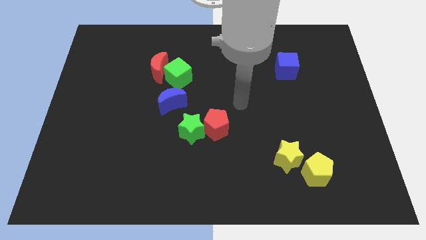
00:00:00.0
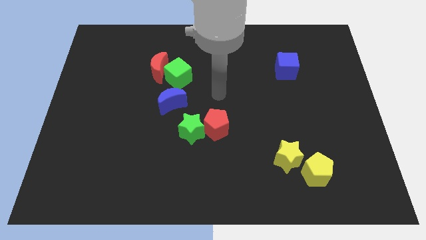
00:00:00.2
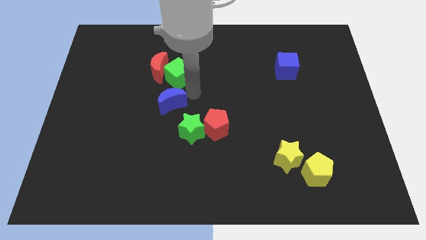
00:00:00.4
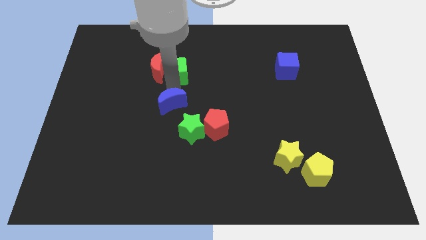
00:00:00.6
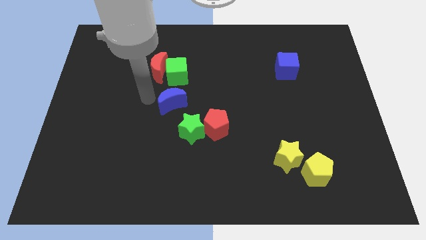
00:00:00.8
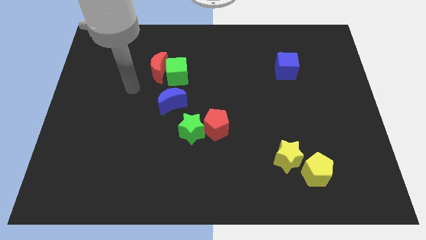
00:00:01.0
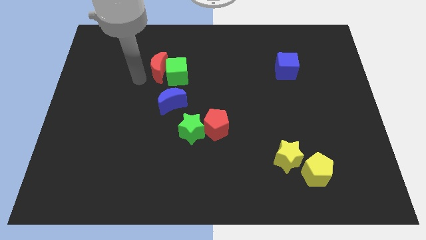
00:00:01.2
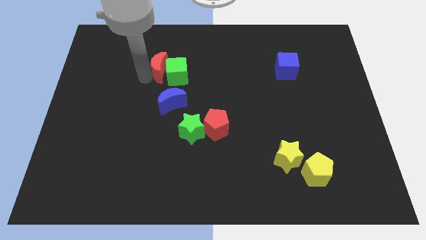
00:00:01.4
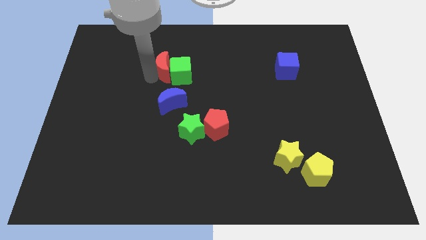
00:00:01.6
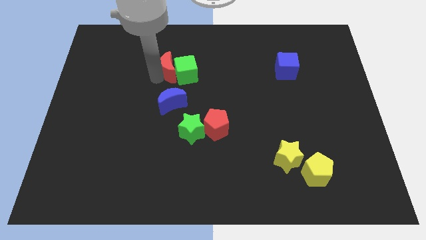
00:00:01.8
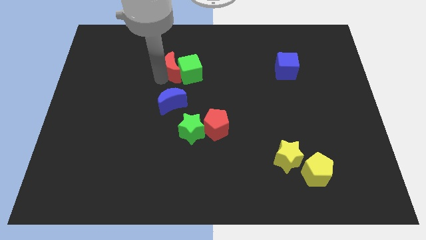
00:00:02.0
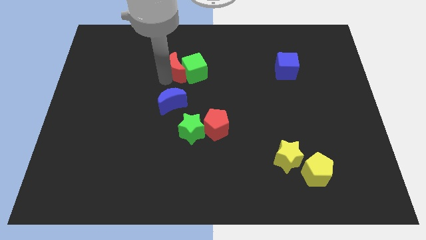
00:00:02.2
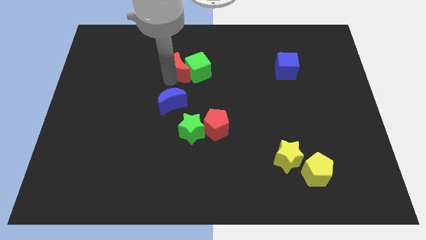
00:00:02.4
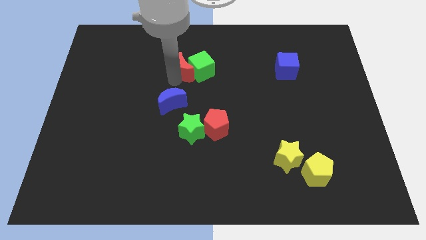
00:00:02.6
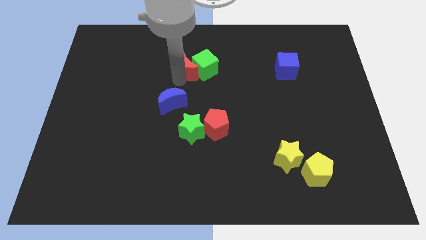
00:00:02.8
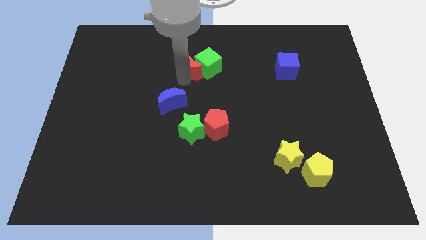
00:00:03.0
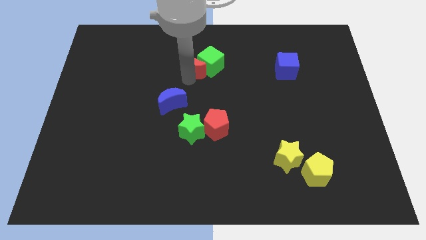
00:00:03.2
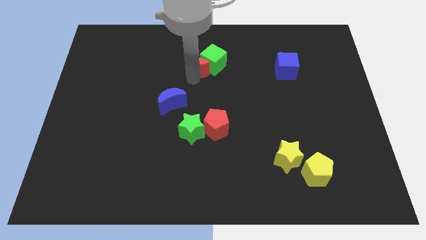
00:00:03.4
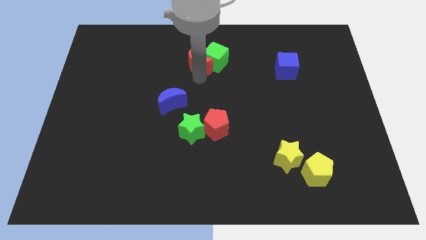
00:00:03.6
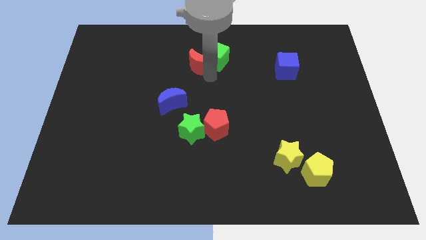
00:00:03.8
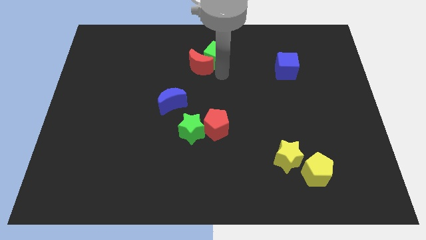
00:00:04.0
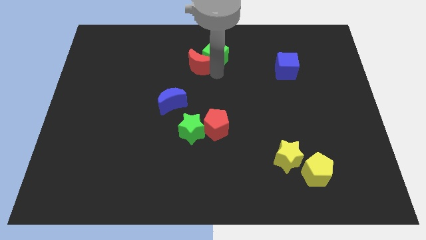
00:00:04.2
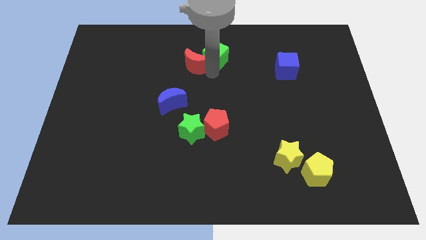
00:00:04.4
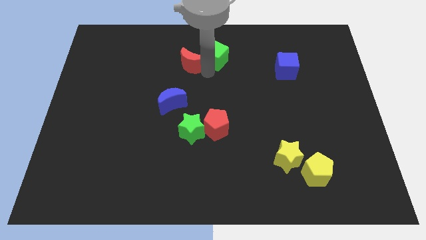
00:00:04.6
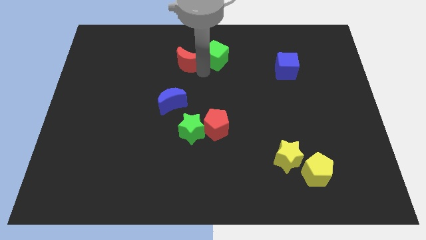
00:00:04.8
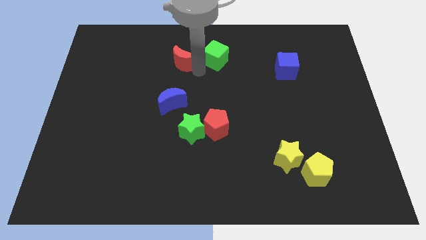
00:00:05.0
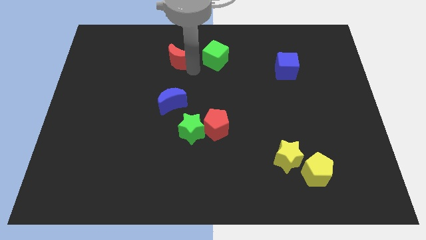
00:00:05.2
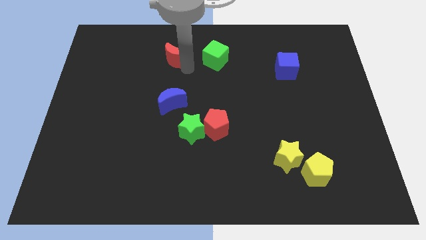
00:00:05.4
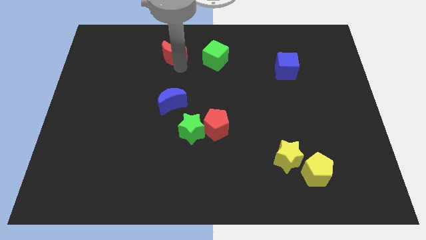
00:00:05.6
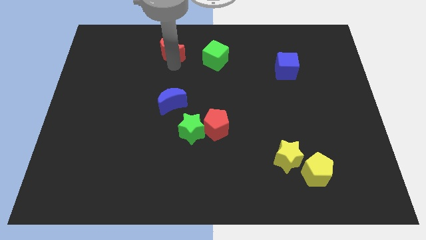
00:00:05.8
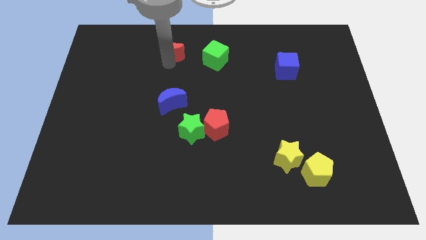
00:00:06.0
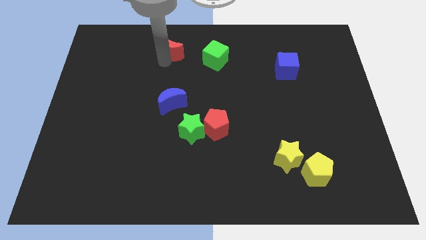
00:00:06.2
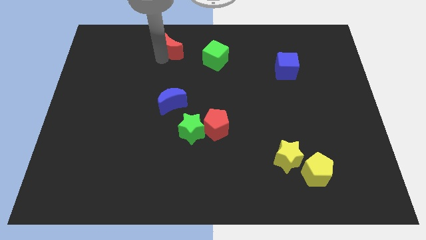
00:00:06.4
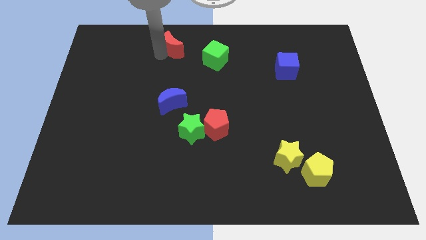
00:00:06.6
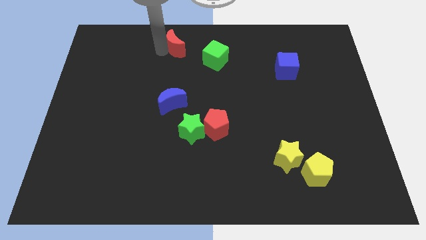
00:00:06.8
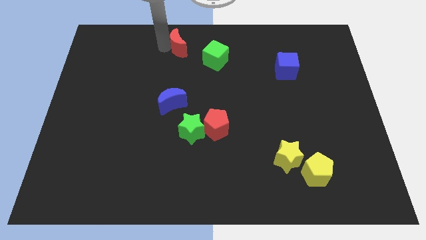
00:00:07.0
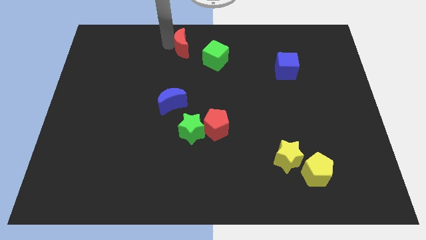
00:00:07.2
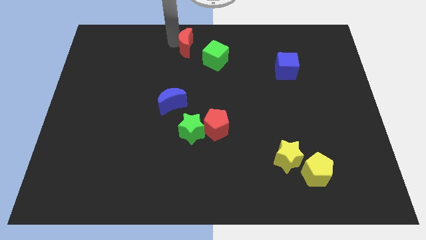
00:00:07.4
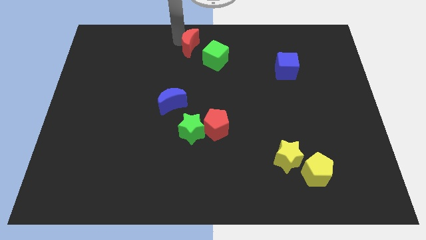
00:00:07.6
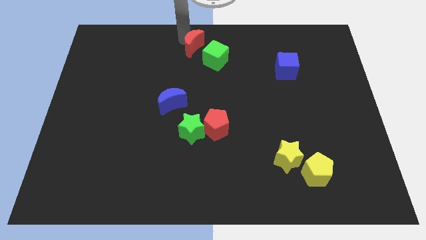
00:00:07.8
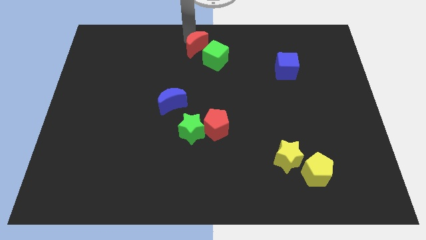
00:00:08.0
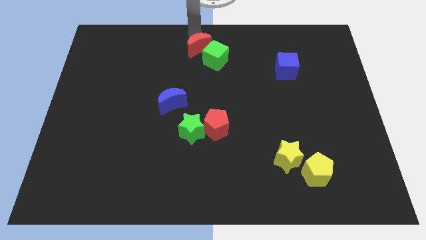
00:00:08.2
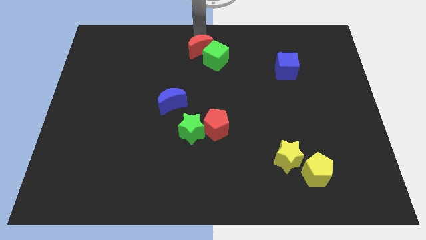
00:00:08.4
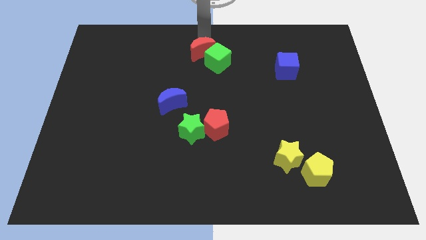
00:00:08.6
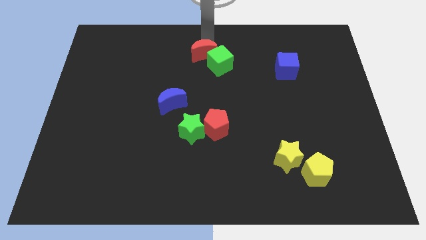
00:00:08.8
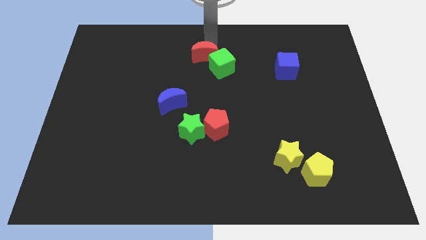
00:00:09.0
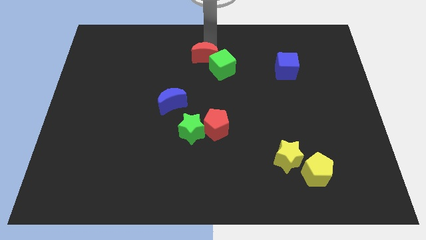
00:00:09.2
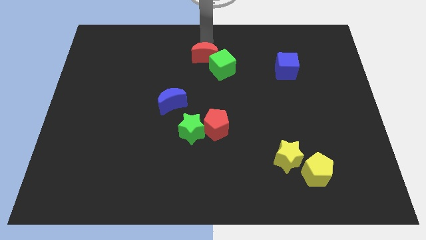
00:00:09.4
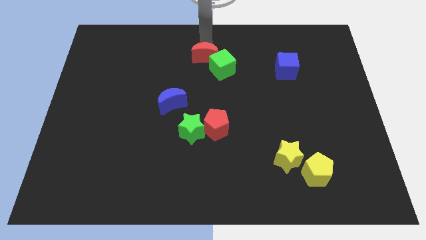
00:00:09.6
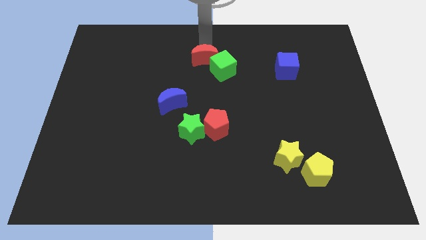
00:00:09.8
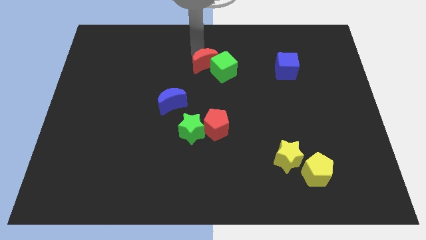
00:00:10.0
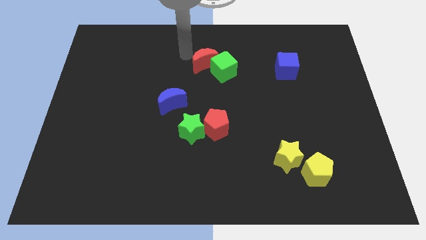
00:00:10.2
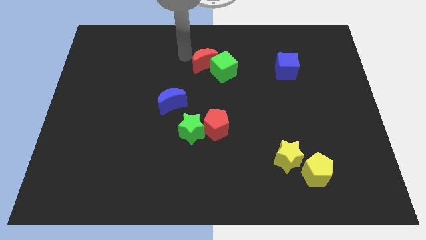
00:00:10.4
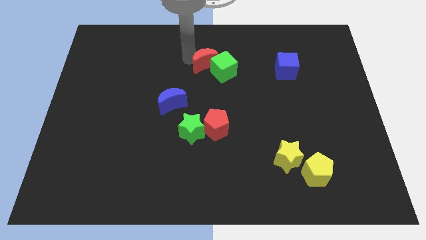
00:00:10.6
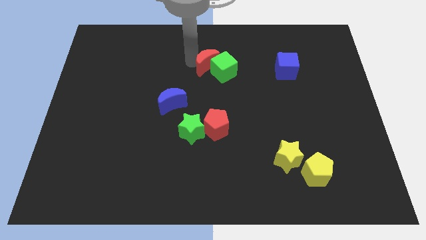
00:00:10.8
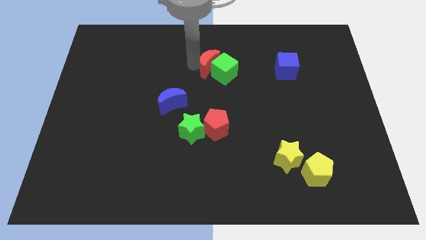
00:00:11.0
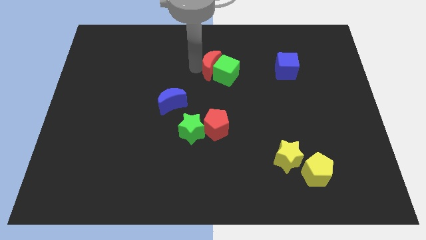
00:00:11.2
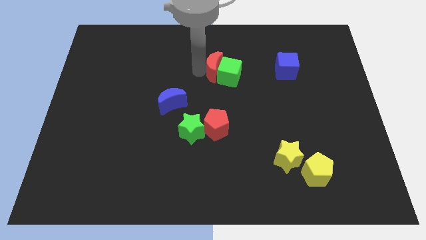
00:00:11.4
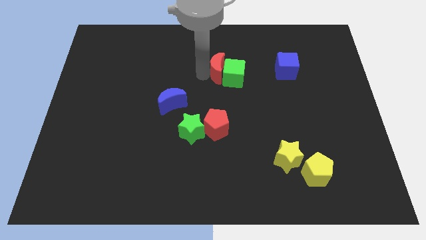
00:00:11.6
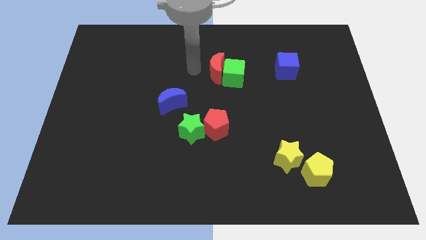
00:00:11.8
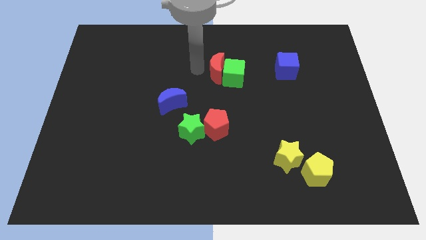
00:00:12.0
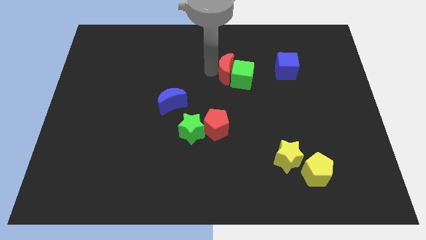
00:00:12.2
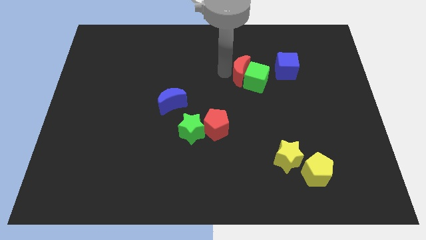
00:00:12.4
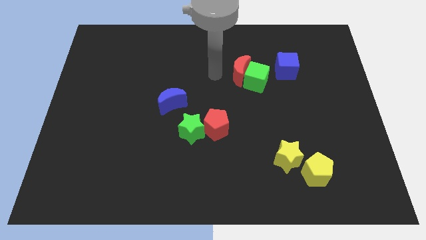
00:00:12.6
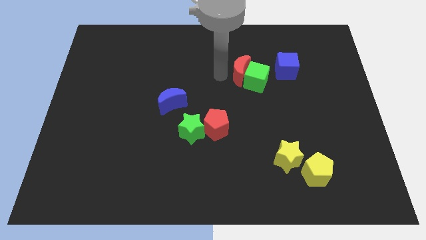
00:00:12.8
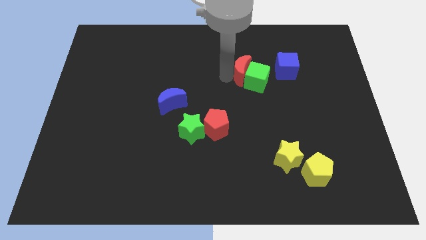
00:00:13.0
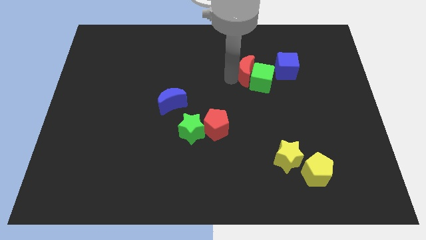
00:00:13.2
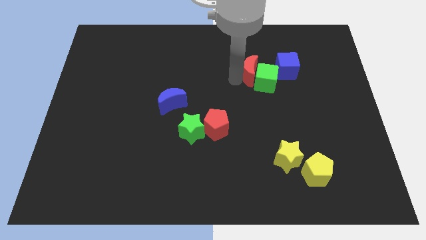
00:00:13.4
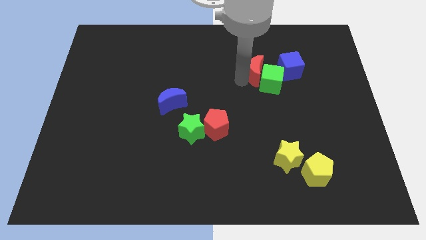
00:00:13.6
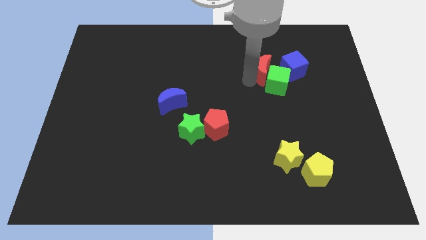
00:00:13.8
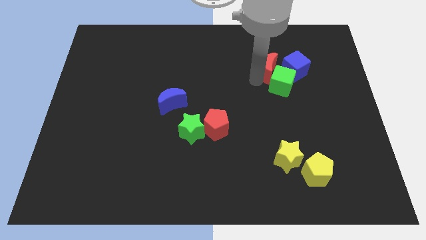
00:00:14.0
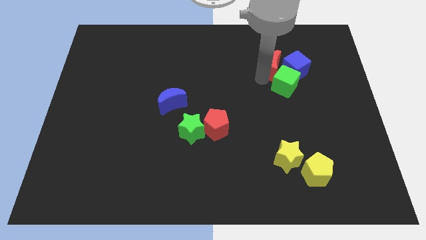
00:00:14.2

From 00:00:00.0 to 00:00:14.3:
push the red moon close to the blue cube
